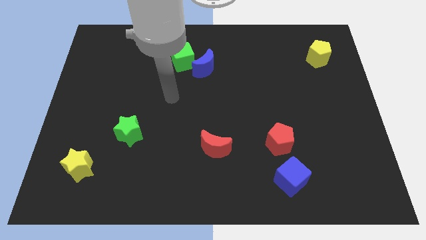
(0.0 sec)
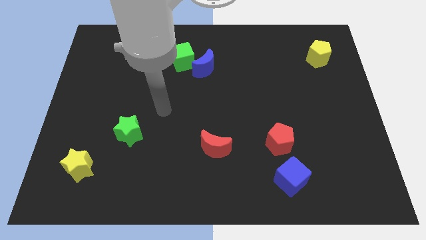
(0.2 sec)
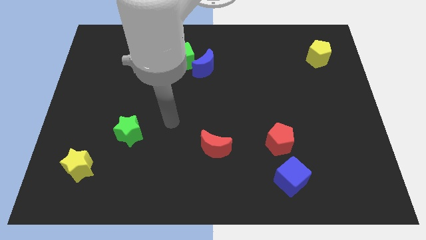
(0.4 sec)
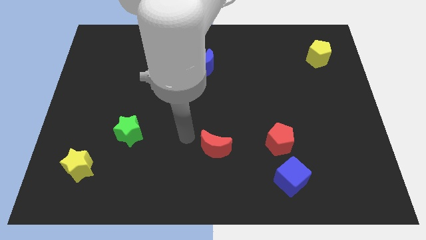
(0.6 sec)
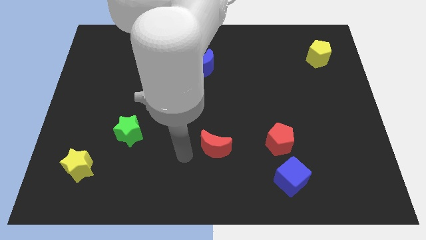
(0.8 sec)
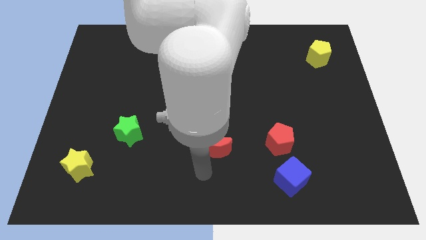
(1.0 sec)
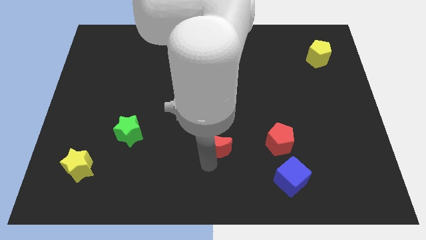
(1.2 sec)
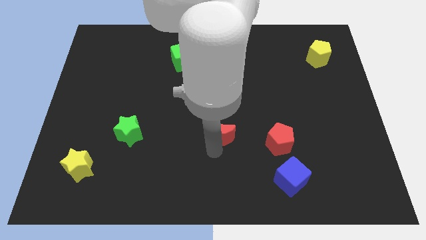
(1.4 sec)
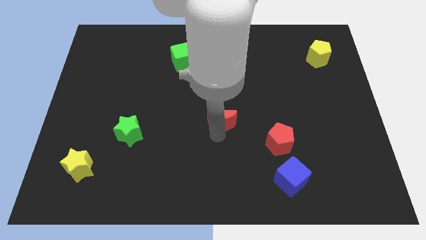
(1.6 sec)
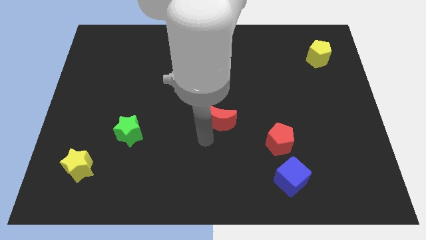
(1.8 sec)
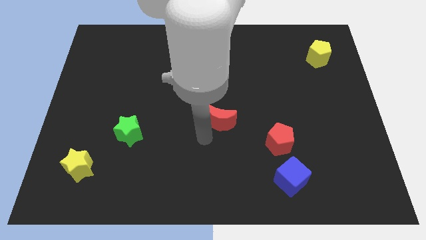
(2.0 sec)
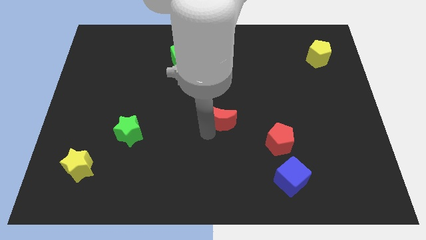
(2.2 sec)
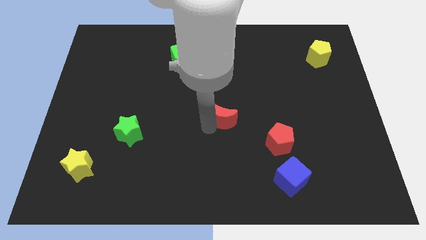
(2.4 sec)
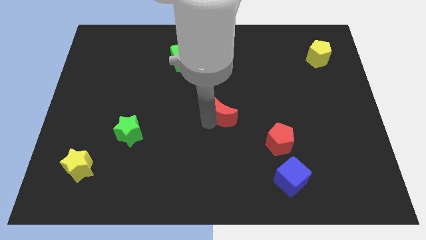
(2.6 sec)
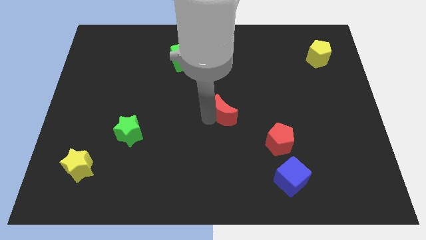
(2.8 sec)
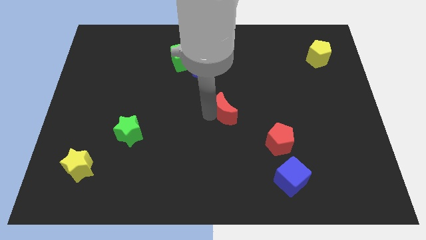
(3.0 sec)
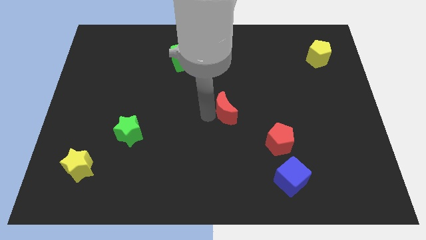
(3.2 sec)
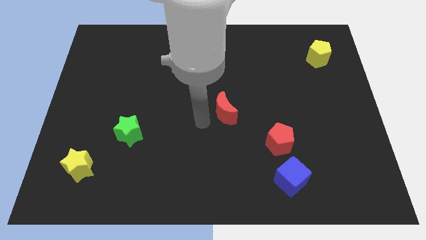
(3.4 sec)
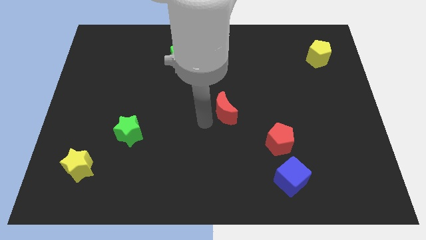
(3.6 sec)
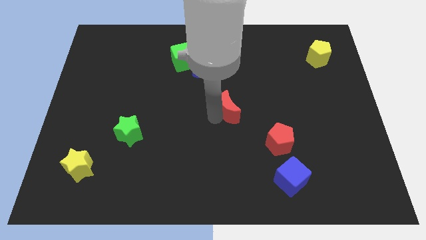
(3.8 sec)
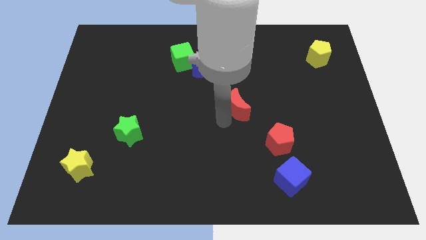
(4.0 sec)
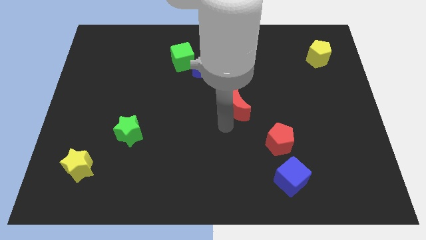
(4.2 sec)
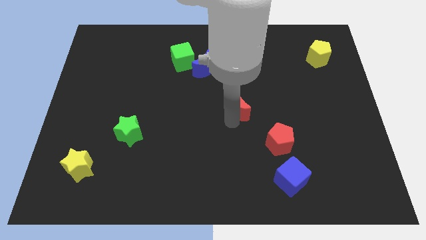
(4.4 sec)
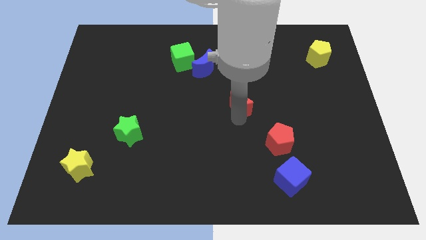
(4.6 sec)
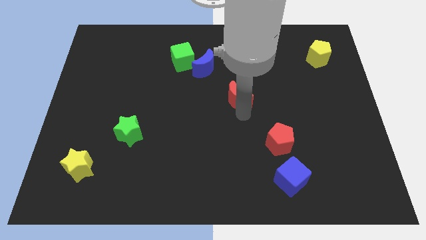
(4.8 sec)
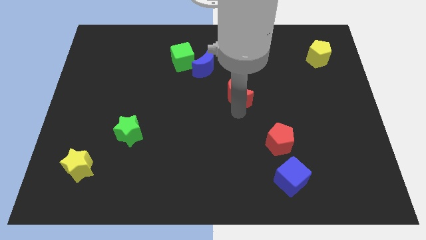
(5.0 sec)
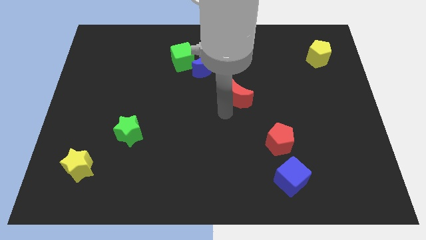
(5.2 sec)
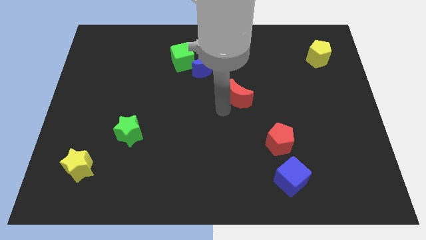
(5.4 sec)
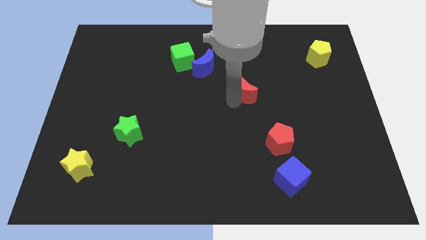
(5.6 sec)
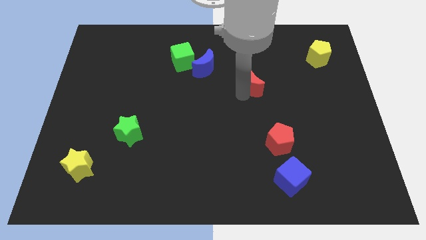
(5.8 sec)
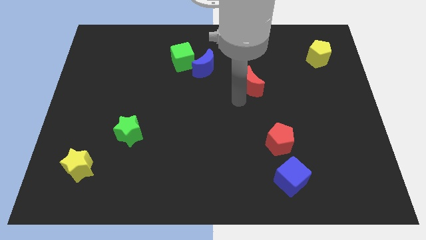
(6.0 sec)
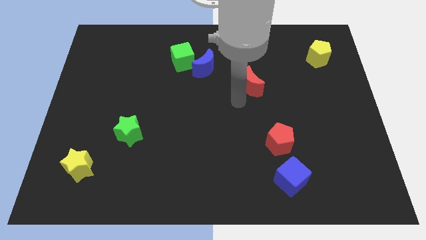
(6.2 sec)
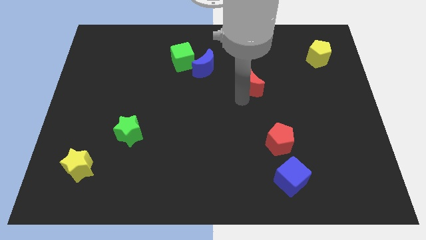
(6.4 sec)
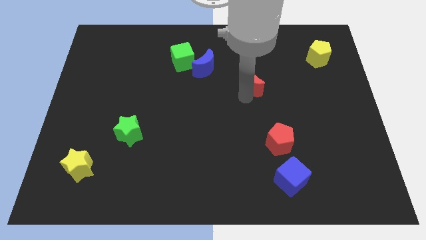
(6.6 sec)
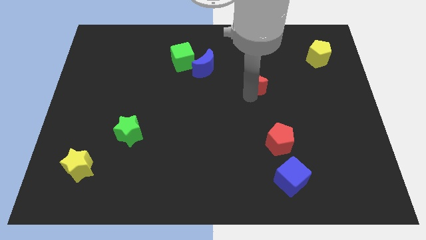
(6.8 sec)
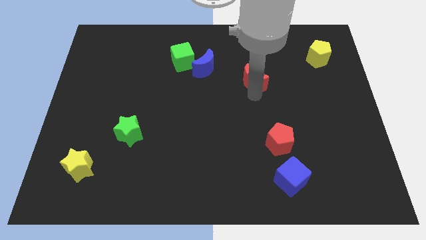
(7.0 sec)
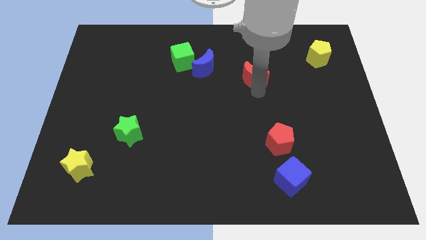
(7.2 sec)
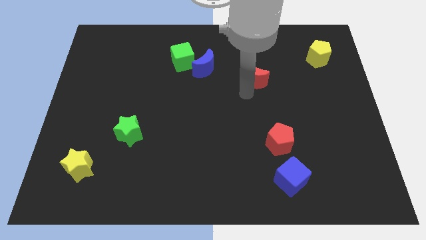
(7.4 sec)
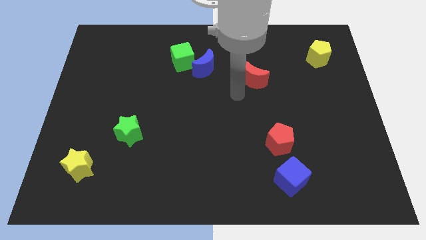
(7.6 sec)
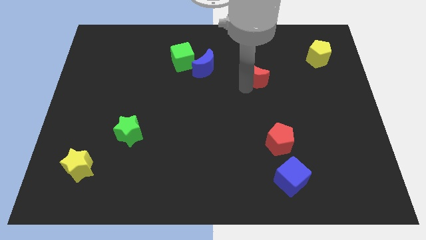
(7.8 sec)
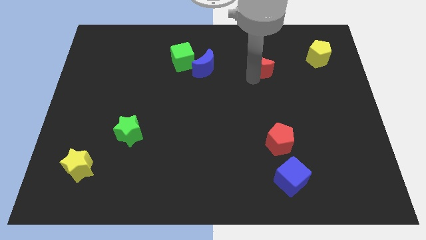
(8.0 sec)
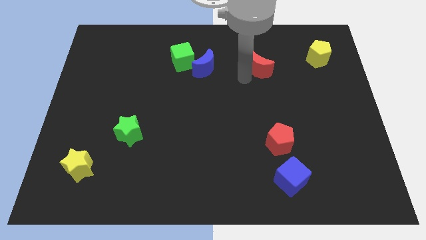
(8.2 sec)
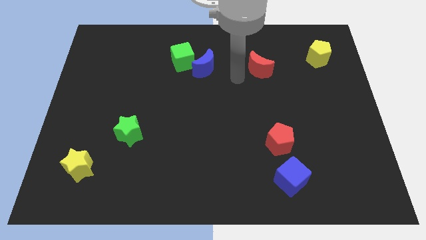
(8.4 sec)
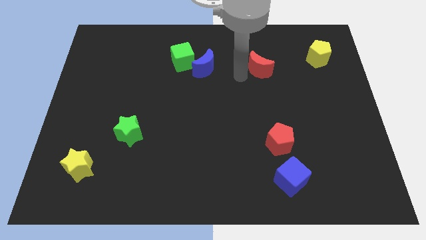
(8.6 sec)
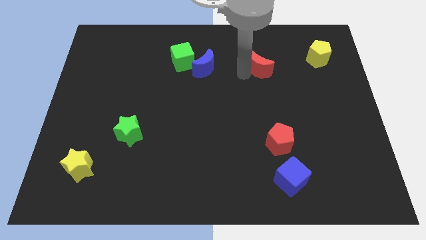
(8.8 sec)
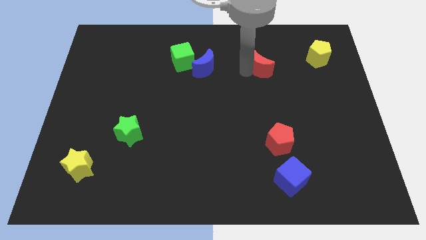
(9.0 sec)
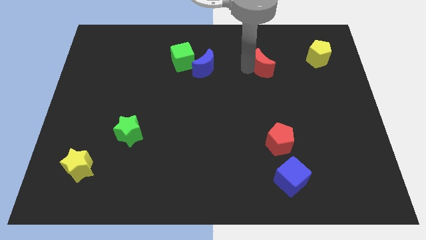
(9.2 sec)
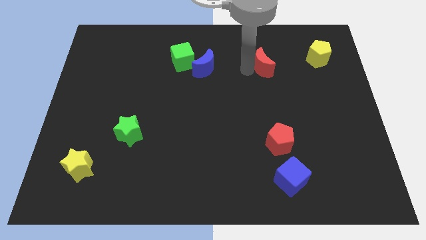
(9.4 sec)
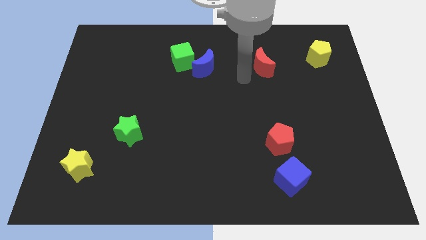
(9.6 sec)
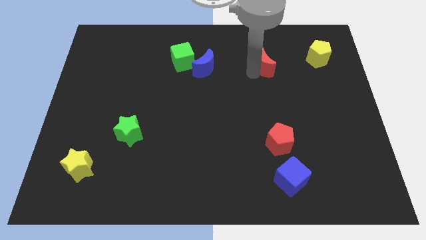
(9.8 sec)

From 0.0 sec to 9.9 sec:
put the red moon to the left of the yellow pentagon

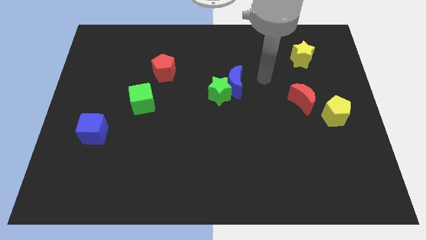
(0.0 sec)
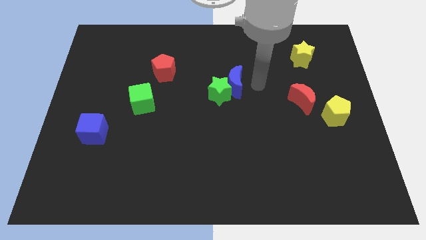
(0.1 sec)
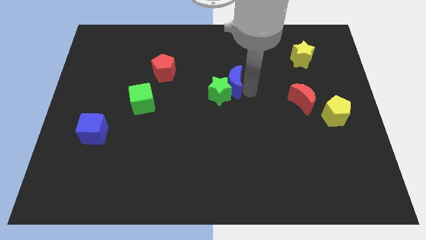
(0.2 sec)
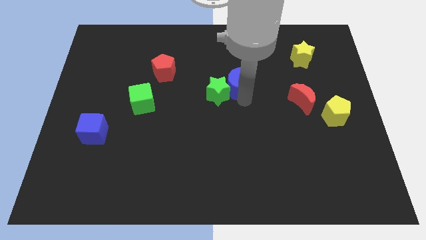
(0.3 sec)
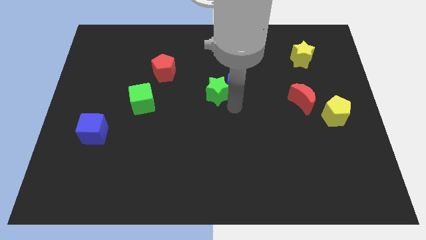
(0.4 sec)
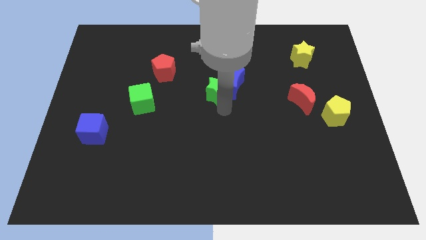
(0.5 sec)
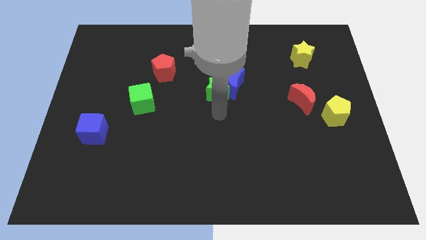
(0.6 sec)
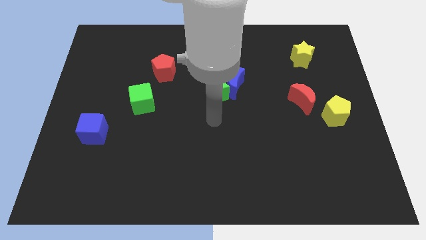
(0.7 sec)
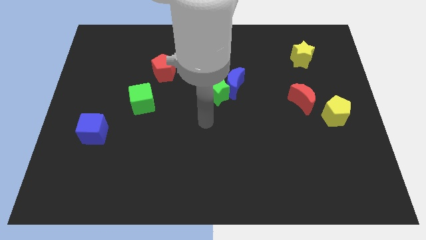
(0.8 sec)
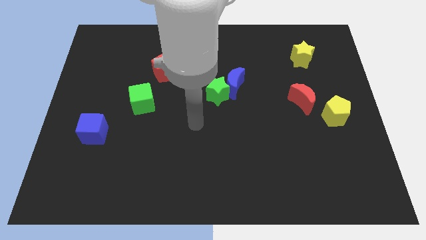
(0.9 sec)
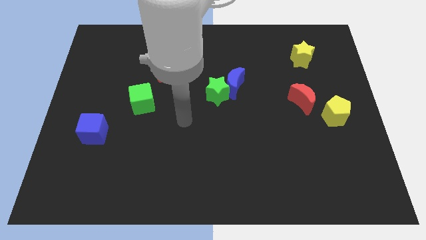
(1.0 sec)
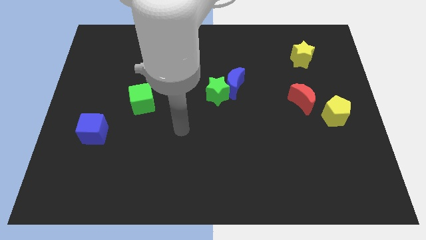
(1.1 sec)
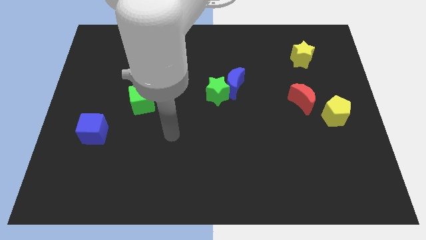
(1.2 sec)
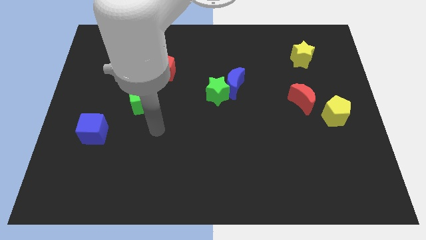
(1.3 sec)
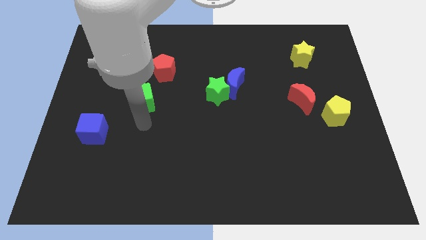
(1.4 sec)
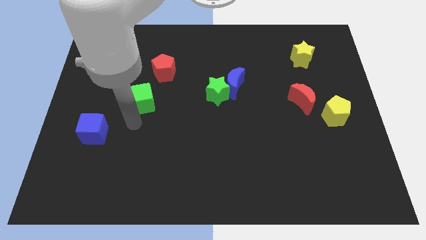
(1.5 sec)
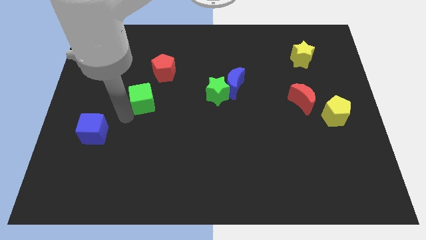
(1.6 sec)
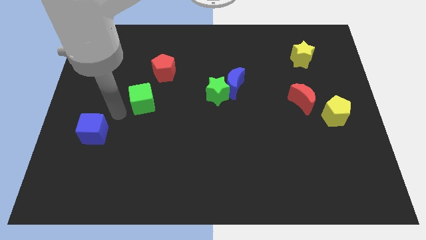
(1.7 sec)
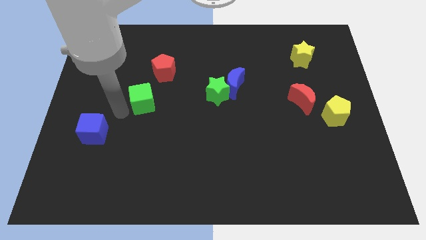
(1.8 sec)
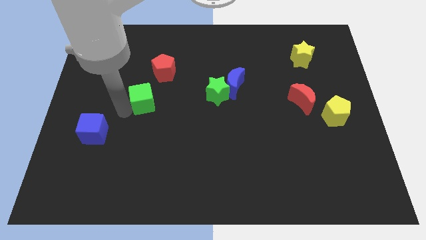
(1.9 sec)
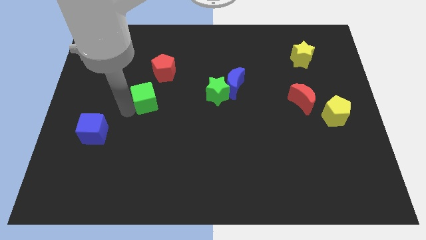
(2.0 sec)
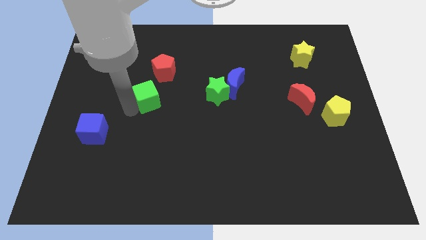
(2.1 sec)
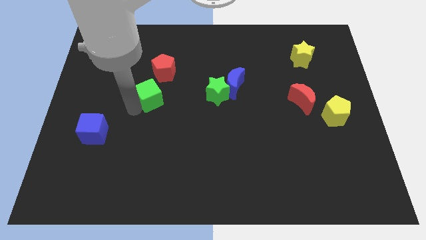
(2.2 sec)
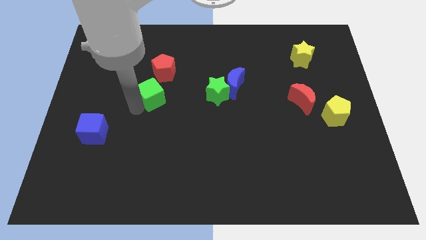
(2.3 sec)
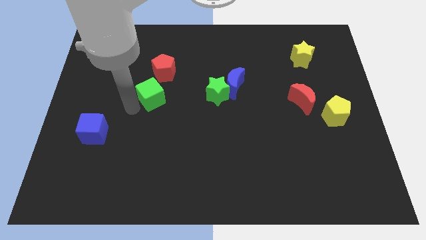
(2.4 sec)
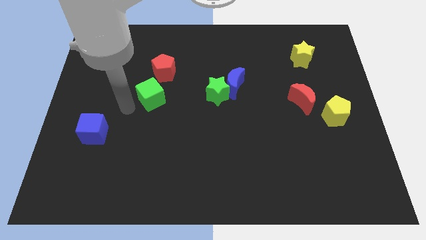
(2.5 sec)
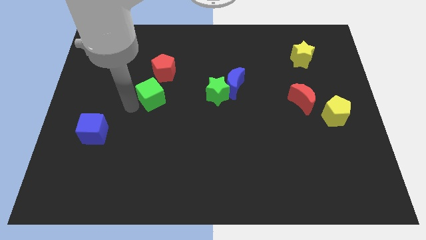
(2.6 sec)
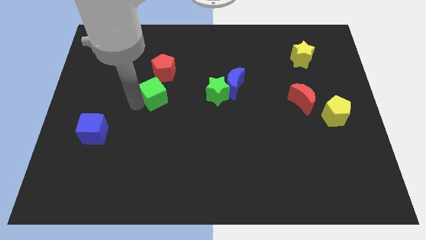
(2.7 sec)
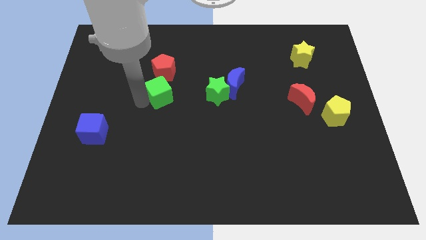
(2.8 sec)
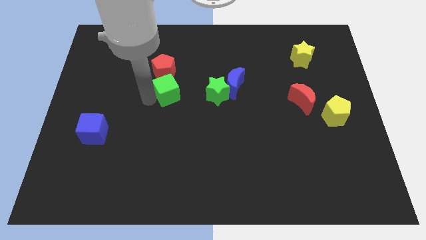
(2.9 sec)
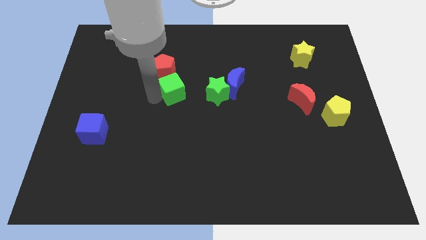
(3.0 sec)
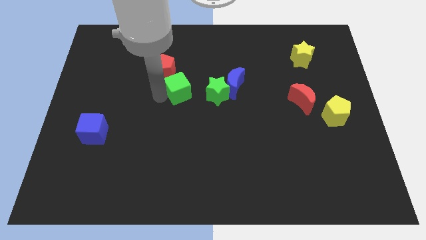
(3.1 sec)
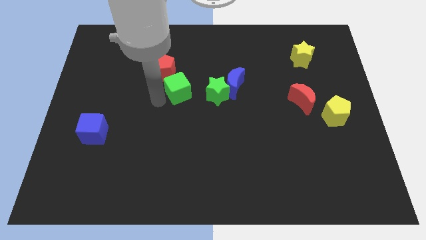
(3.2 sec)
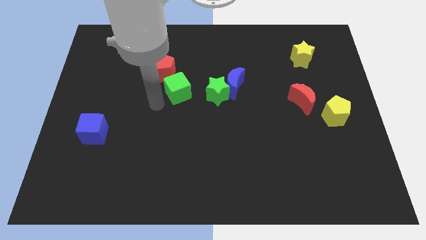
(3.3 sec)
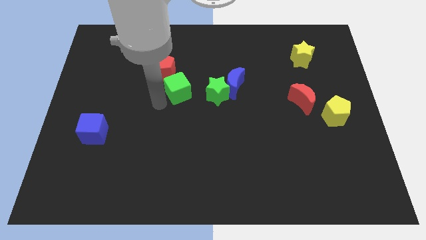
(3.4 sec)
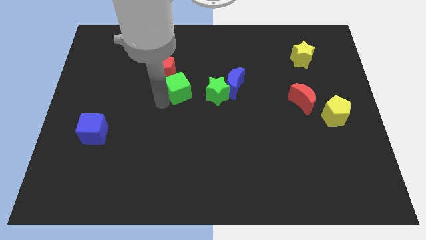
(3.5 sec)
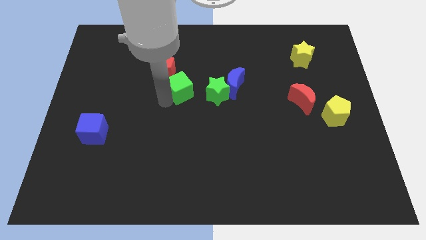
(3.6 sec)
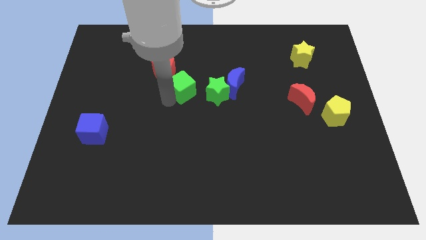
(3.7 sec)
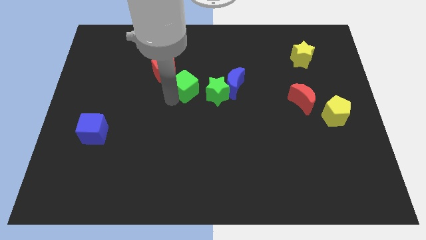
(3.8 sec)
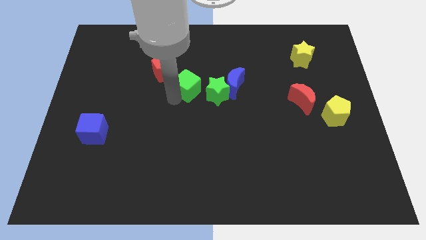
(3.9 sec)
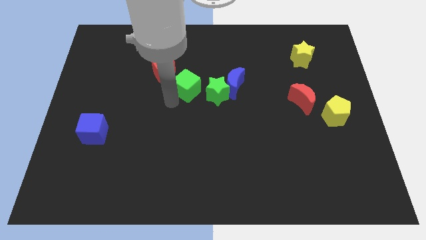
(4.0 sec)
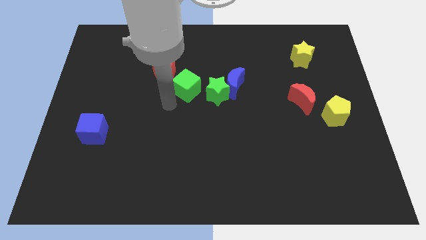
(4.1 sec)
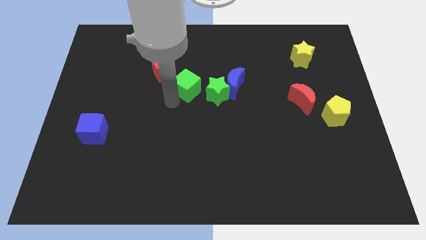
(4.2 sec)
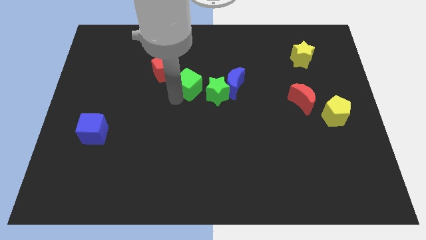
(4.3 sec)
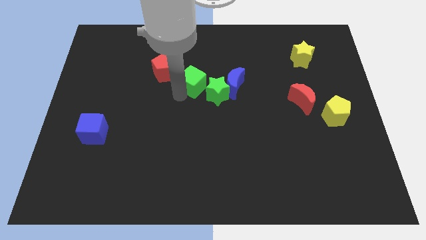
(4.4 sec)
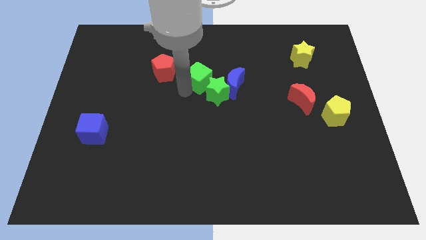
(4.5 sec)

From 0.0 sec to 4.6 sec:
put the green cube diagonally up and to the left of the blue moon
